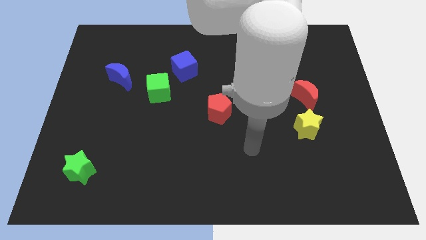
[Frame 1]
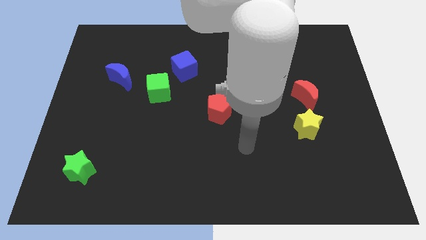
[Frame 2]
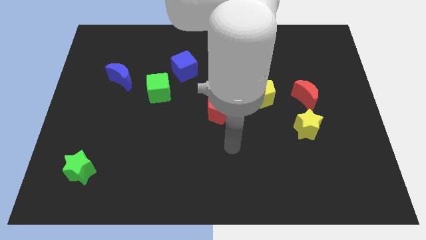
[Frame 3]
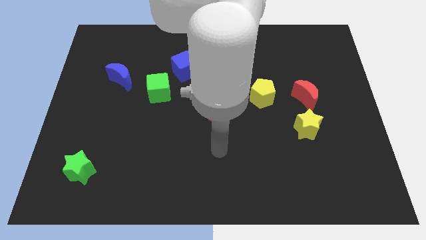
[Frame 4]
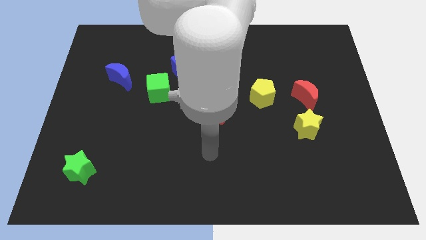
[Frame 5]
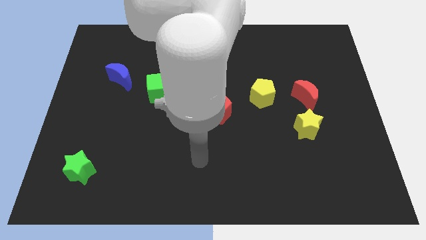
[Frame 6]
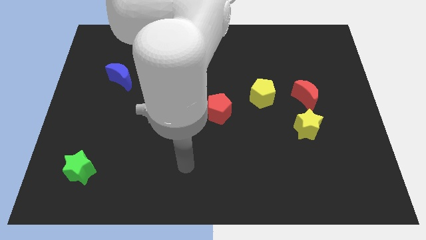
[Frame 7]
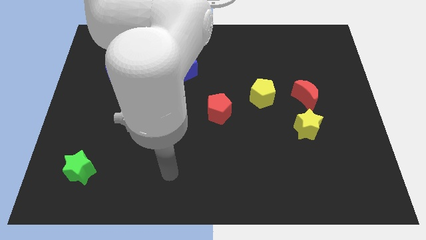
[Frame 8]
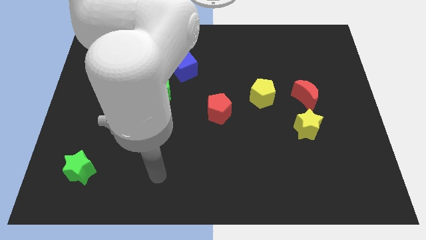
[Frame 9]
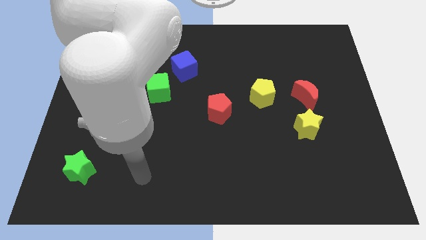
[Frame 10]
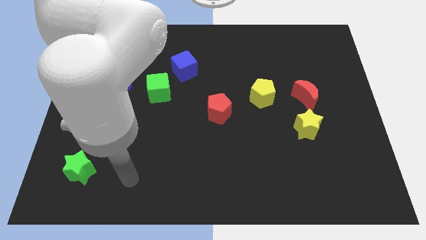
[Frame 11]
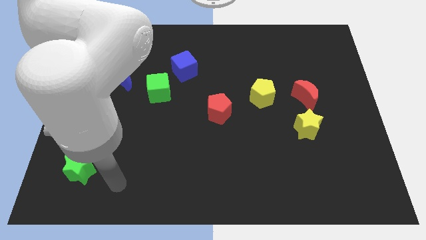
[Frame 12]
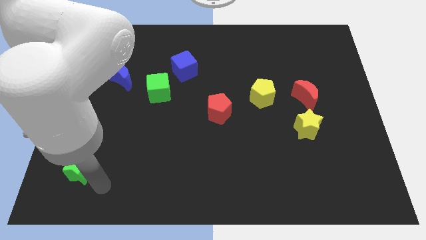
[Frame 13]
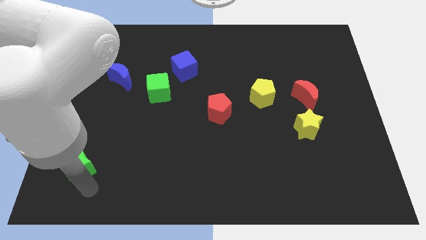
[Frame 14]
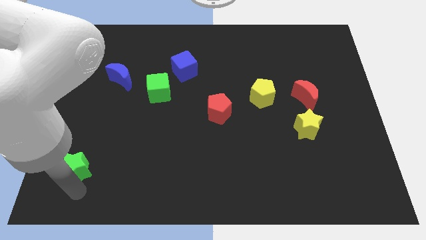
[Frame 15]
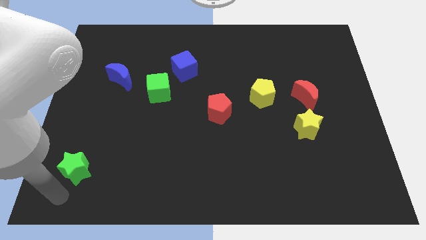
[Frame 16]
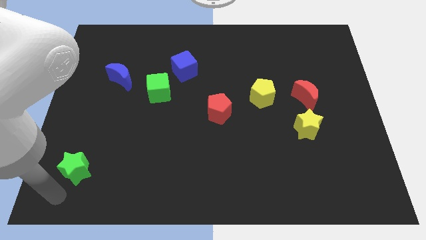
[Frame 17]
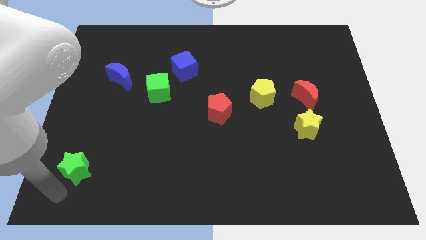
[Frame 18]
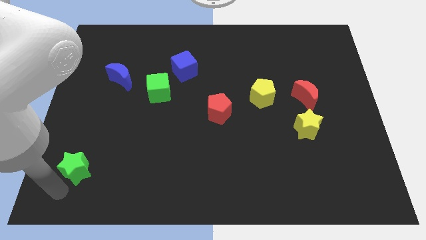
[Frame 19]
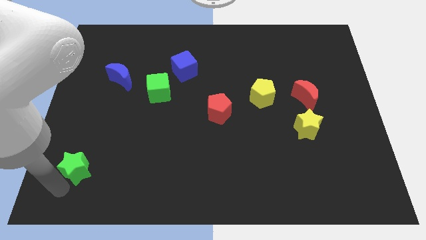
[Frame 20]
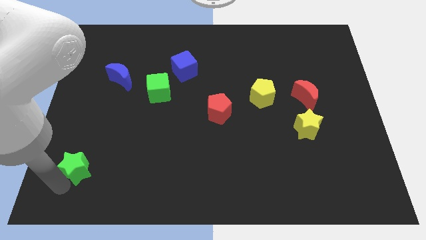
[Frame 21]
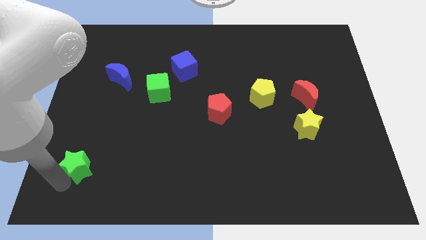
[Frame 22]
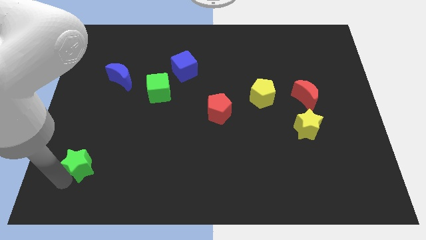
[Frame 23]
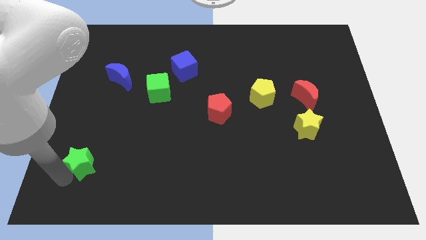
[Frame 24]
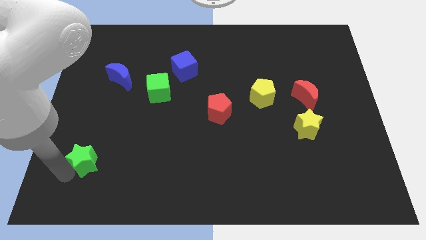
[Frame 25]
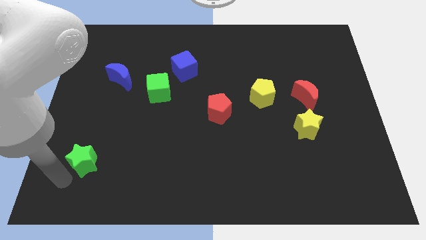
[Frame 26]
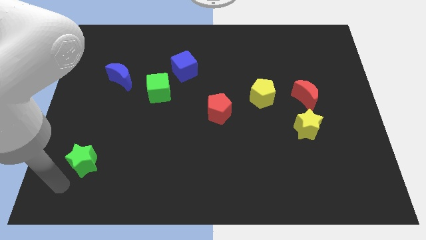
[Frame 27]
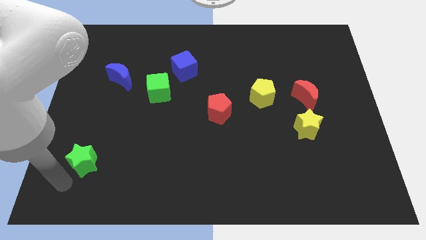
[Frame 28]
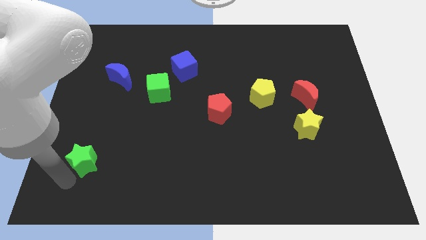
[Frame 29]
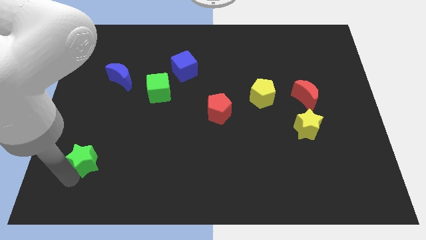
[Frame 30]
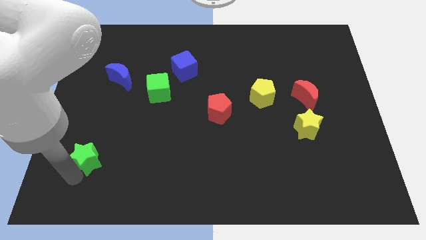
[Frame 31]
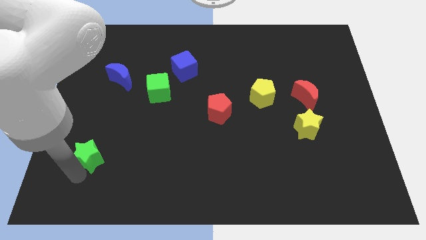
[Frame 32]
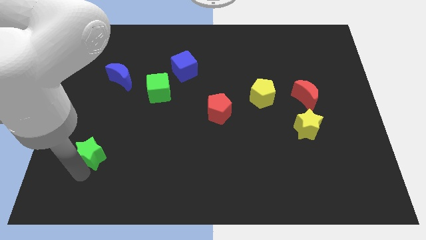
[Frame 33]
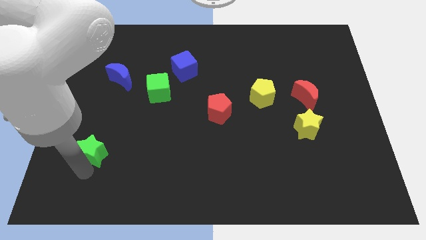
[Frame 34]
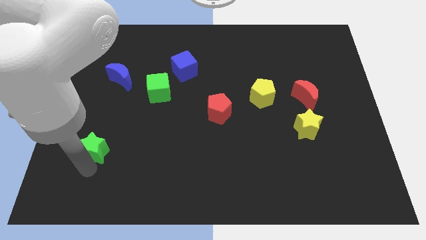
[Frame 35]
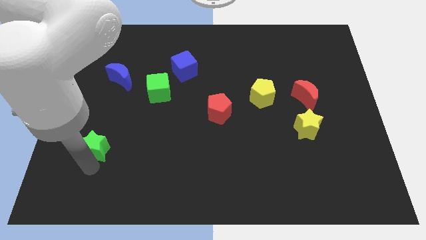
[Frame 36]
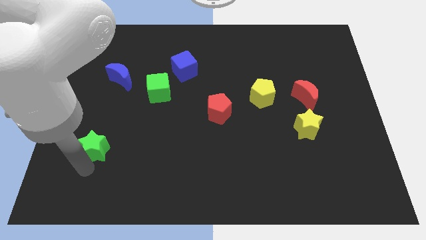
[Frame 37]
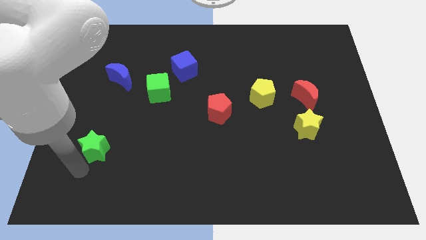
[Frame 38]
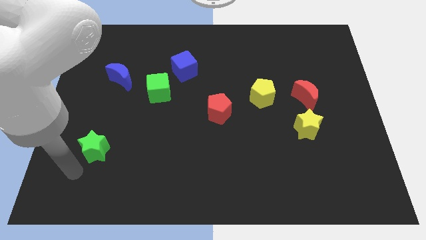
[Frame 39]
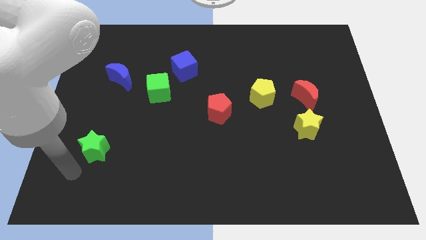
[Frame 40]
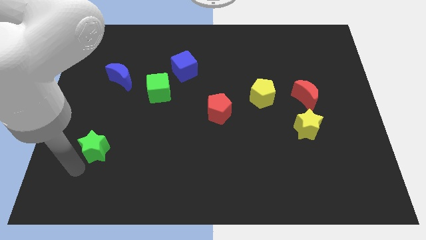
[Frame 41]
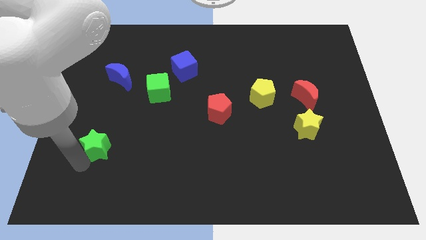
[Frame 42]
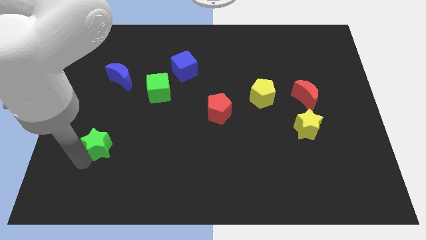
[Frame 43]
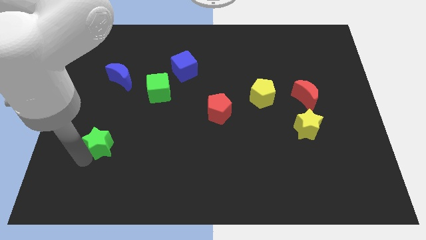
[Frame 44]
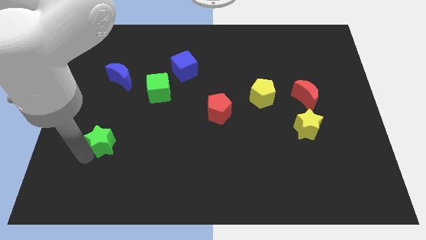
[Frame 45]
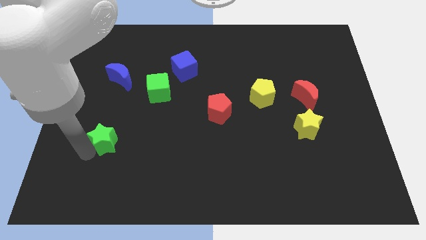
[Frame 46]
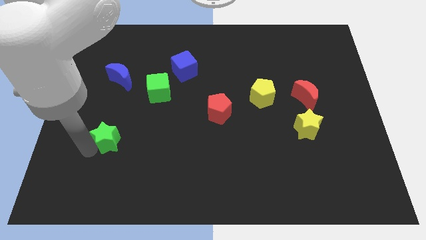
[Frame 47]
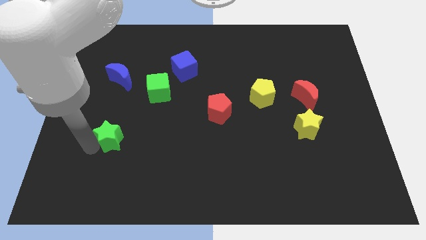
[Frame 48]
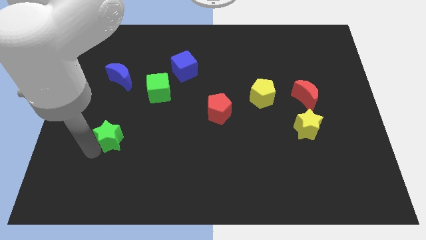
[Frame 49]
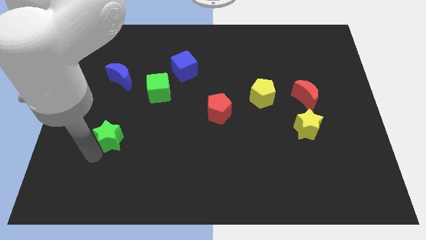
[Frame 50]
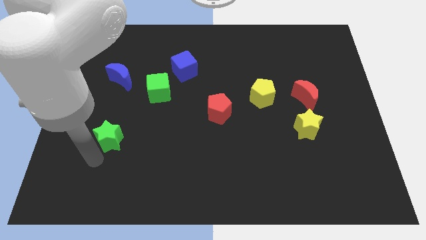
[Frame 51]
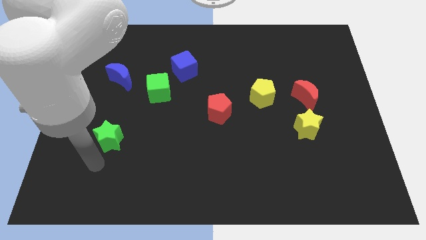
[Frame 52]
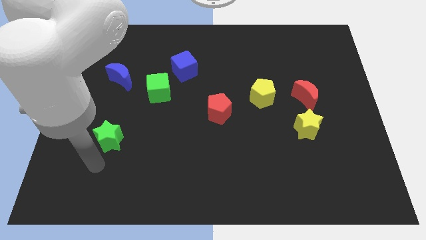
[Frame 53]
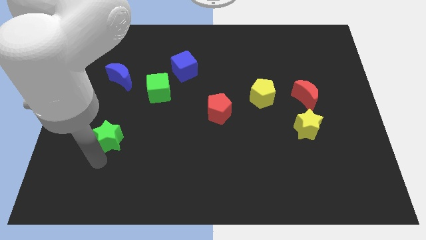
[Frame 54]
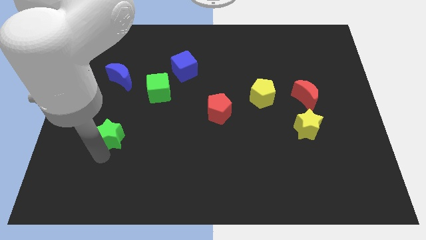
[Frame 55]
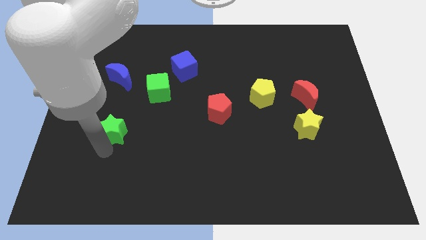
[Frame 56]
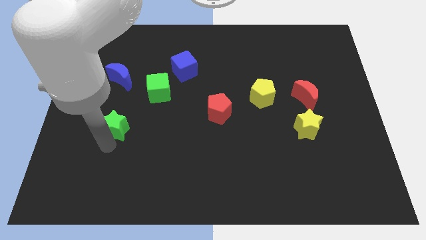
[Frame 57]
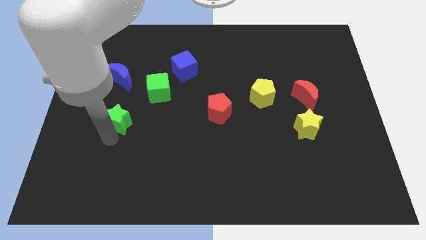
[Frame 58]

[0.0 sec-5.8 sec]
push the green star diagonally down and to the left of the green cube

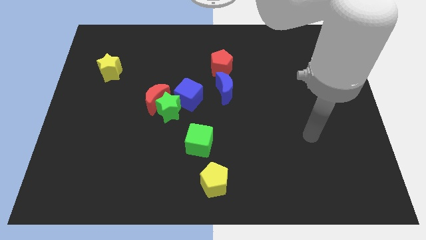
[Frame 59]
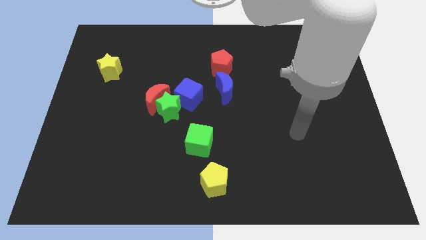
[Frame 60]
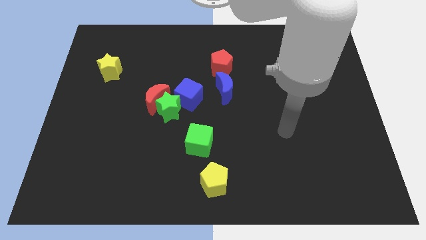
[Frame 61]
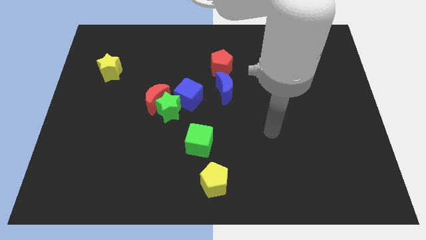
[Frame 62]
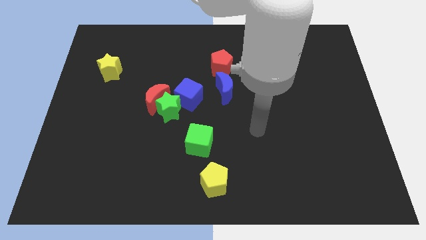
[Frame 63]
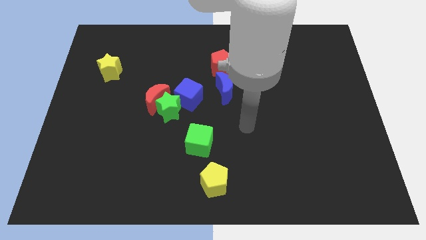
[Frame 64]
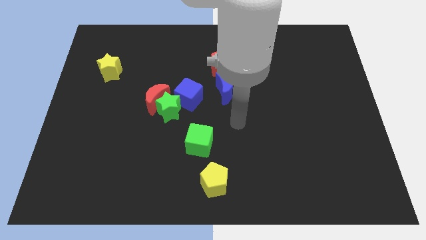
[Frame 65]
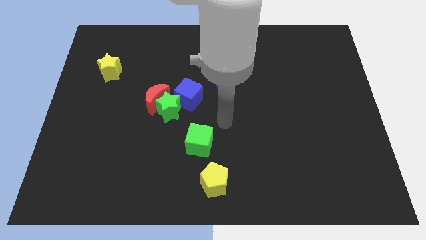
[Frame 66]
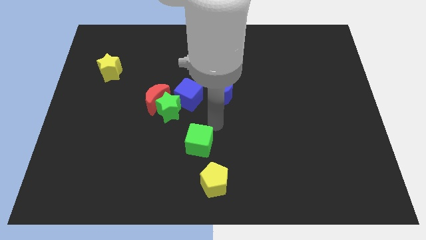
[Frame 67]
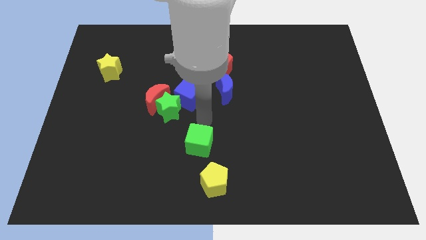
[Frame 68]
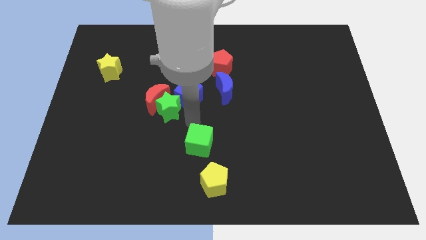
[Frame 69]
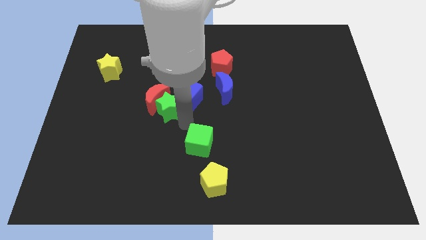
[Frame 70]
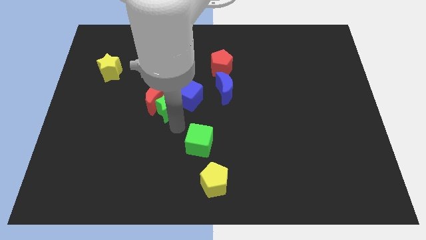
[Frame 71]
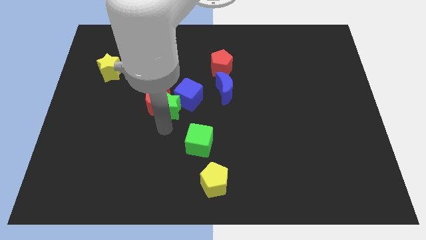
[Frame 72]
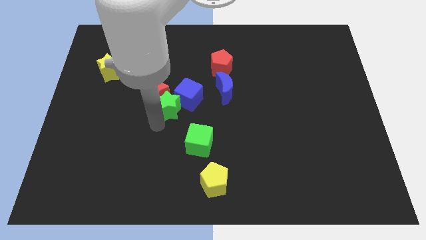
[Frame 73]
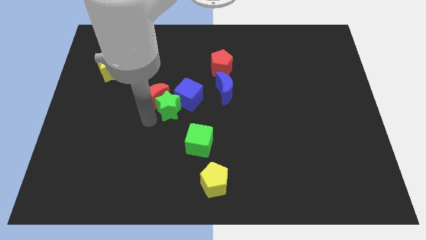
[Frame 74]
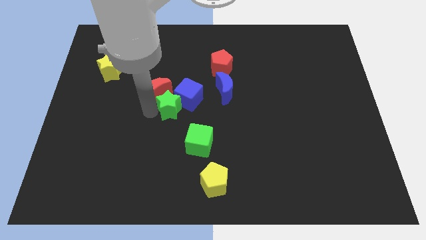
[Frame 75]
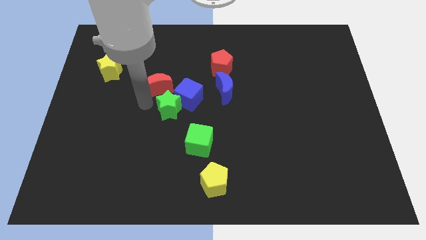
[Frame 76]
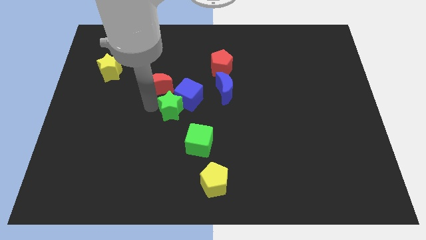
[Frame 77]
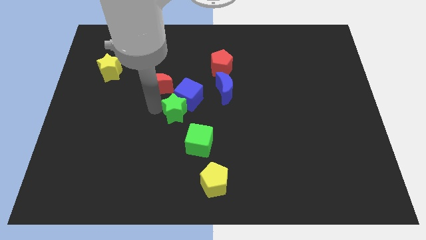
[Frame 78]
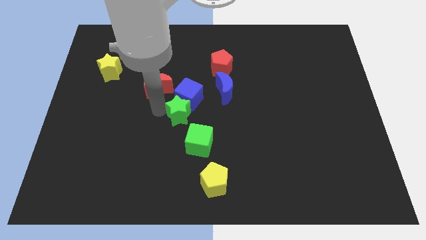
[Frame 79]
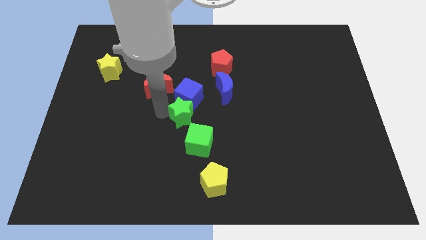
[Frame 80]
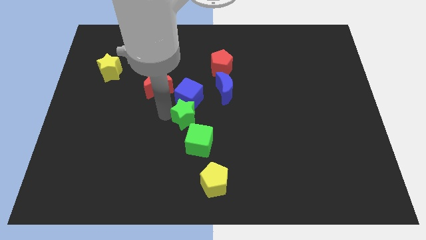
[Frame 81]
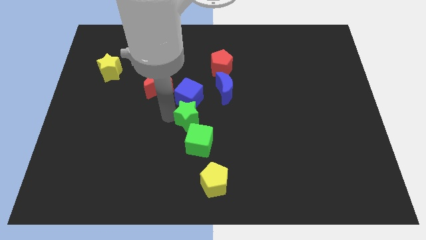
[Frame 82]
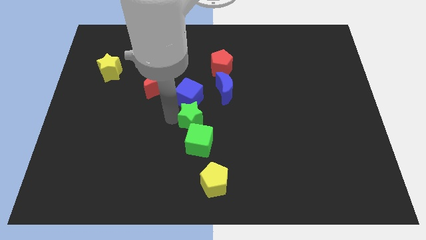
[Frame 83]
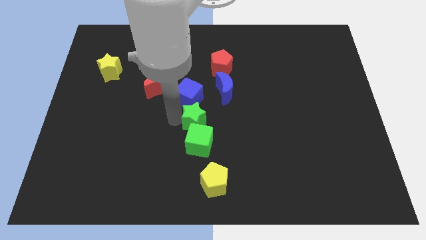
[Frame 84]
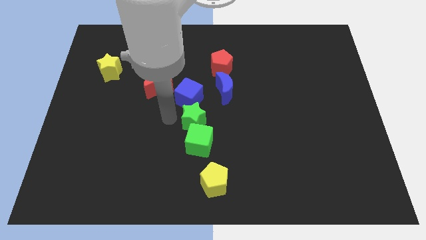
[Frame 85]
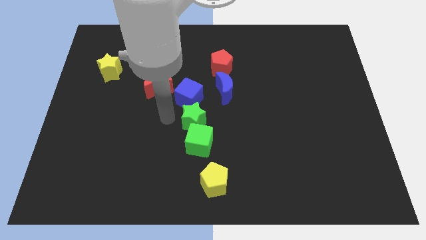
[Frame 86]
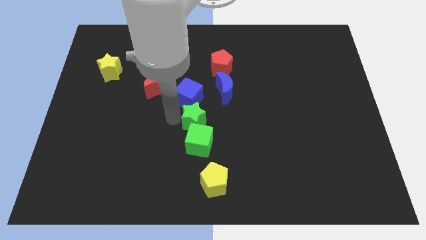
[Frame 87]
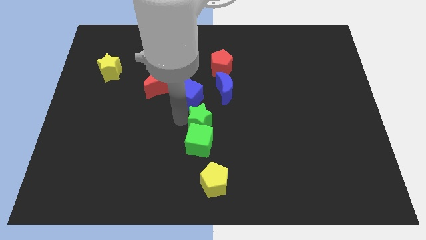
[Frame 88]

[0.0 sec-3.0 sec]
push the green star to the top right of the green cube
